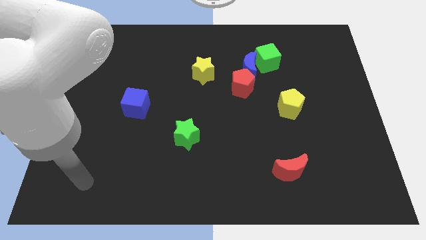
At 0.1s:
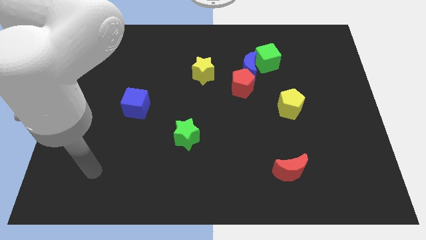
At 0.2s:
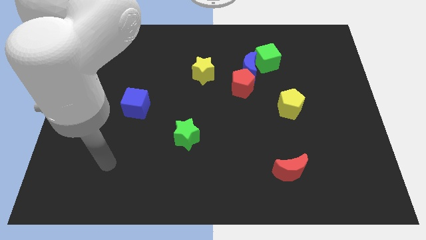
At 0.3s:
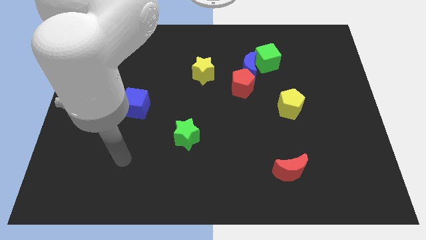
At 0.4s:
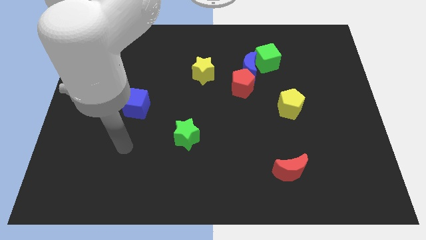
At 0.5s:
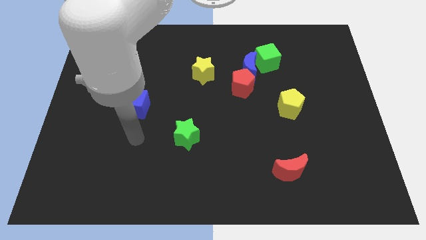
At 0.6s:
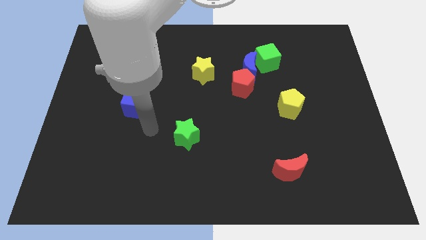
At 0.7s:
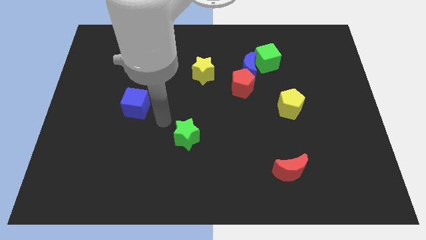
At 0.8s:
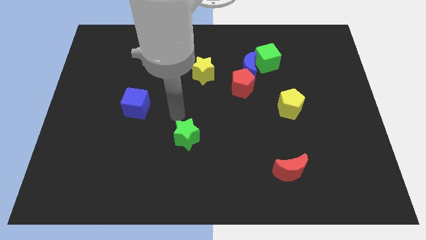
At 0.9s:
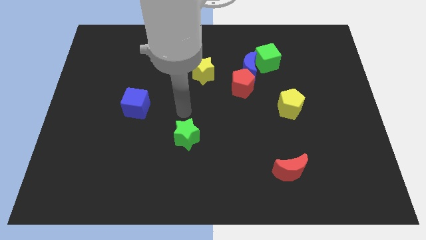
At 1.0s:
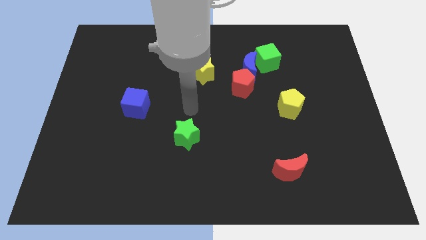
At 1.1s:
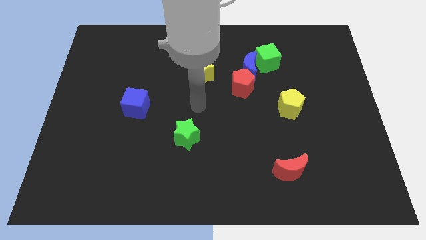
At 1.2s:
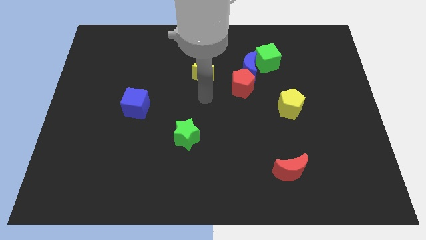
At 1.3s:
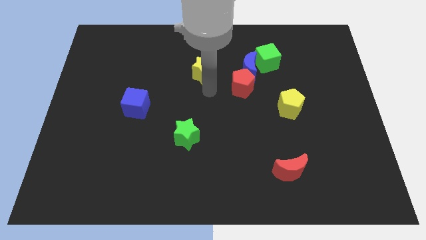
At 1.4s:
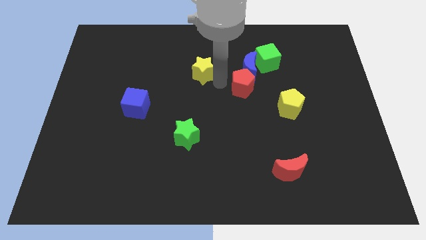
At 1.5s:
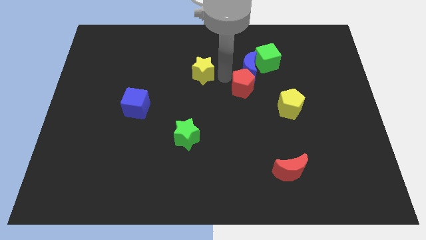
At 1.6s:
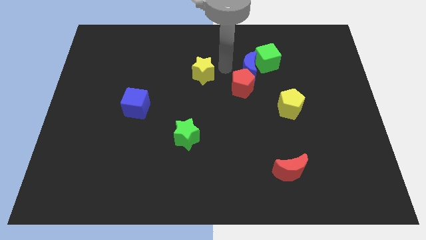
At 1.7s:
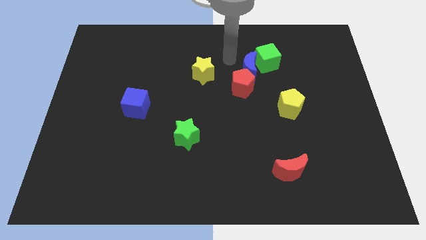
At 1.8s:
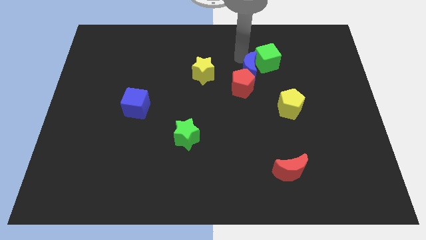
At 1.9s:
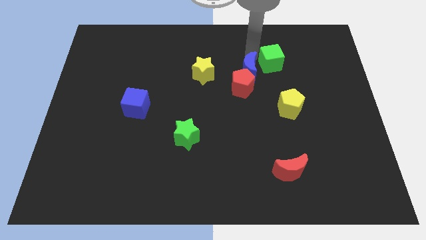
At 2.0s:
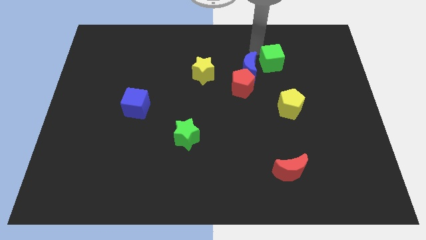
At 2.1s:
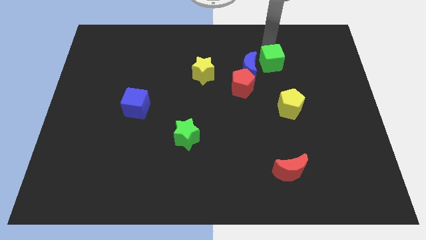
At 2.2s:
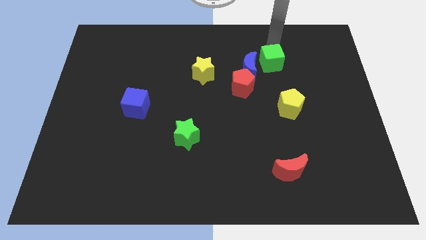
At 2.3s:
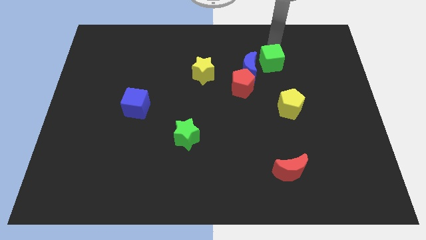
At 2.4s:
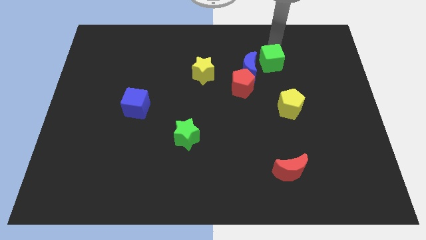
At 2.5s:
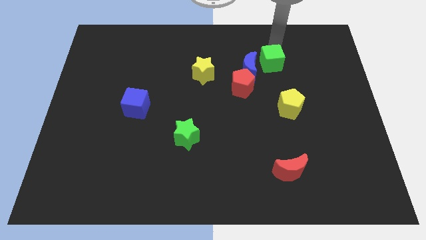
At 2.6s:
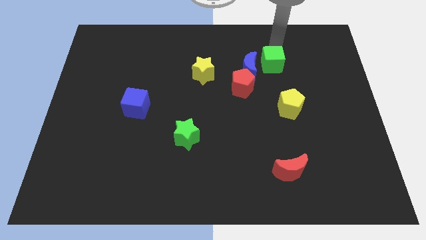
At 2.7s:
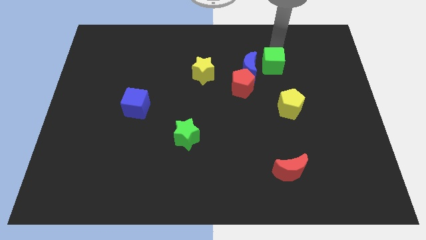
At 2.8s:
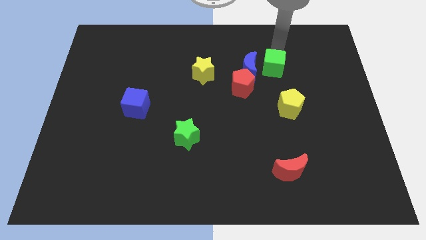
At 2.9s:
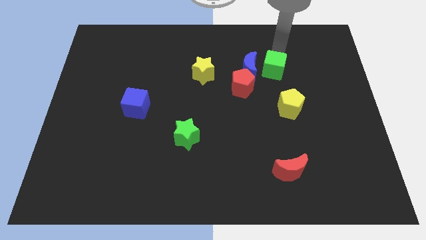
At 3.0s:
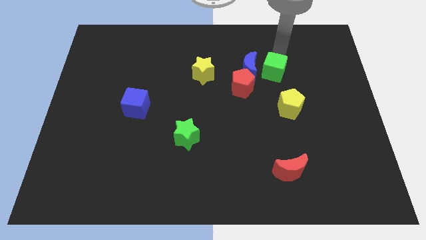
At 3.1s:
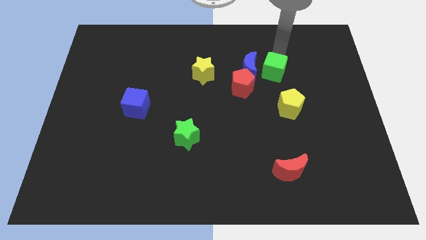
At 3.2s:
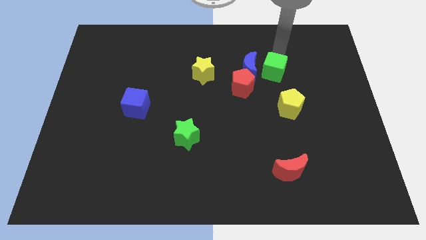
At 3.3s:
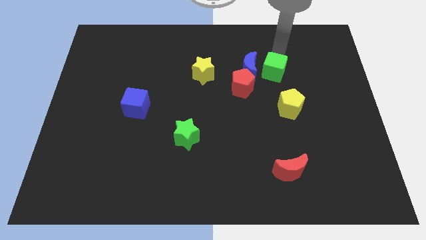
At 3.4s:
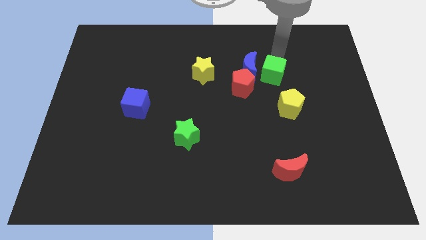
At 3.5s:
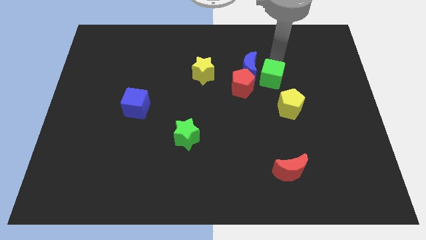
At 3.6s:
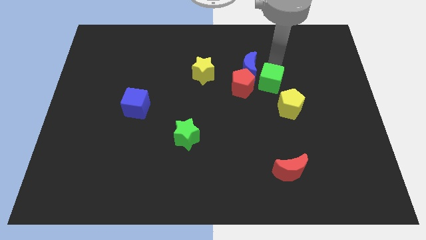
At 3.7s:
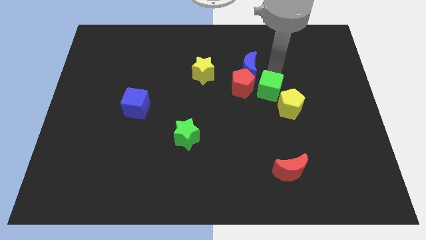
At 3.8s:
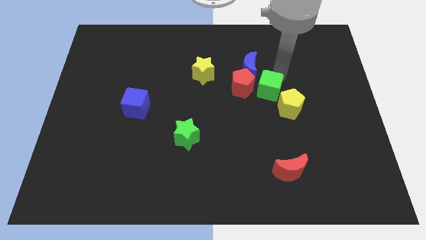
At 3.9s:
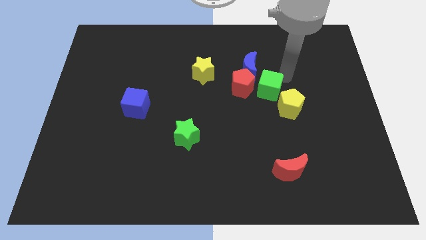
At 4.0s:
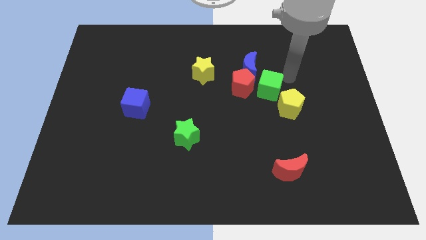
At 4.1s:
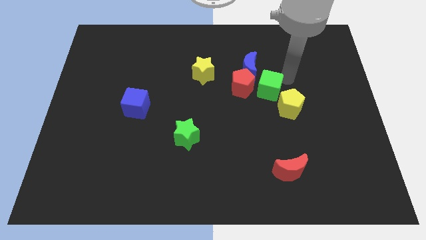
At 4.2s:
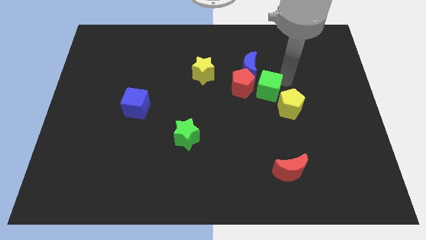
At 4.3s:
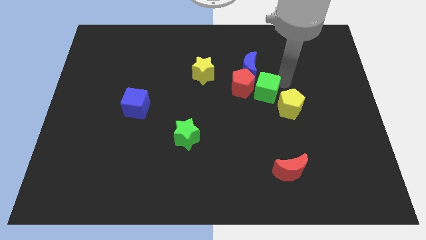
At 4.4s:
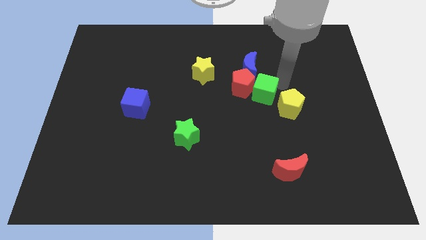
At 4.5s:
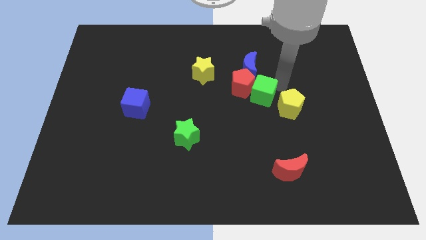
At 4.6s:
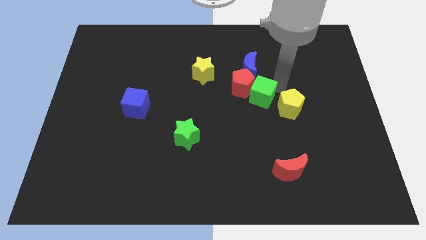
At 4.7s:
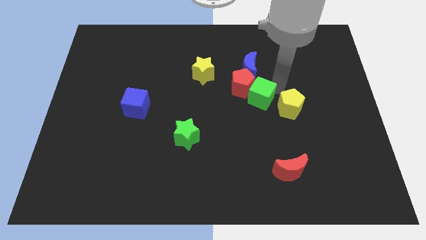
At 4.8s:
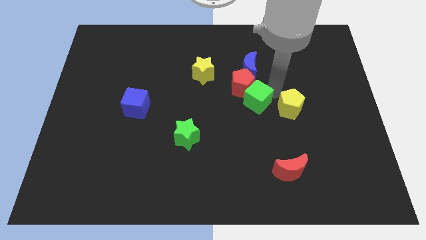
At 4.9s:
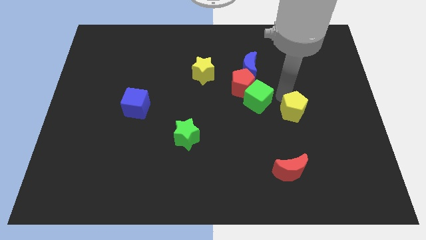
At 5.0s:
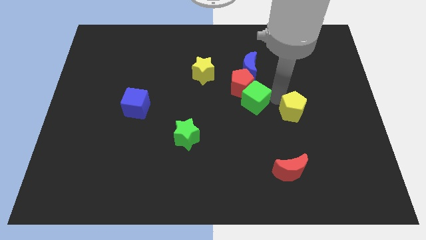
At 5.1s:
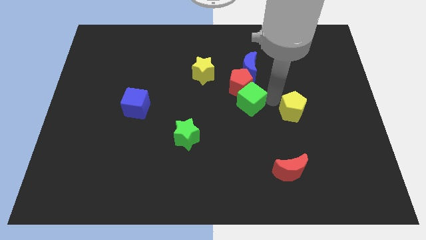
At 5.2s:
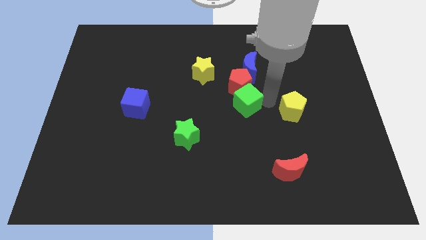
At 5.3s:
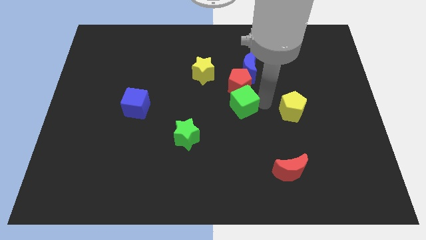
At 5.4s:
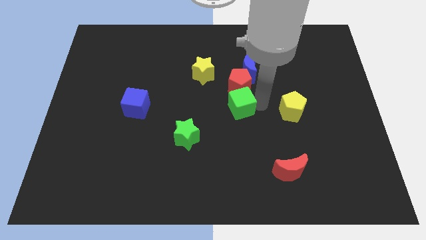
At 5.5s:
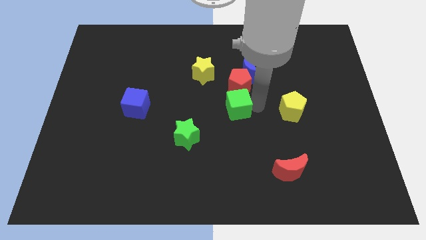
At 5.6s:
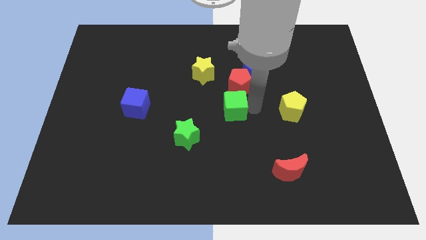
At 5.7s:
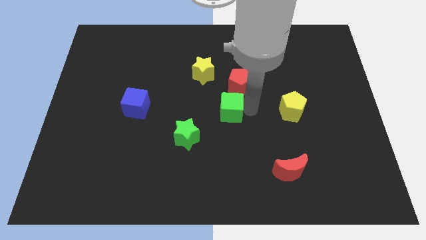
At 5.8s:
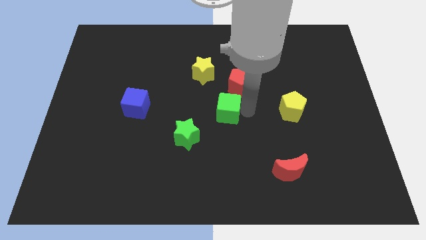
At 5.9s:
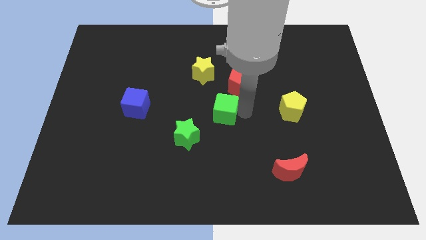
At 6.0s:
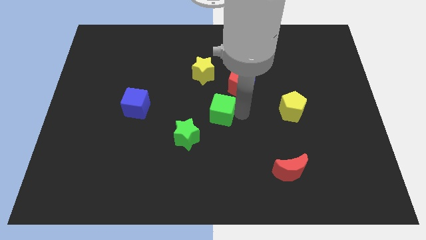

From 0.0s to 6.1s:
slide the green cube to the bottom side of the yellow star
